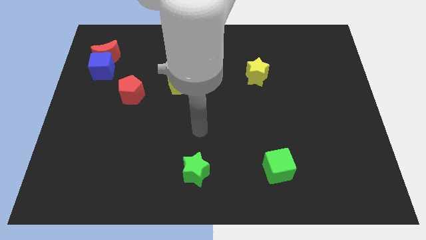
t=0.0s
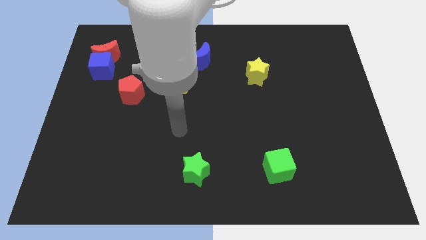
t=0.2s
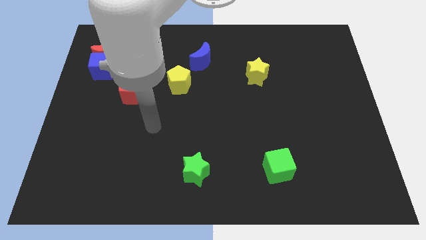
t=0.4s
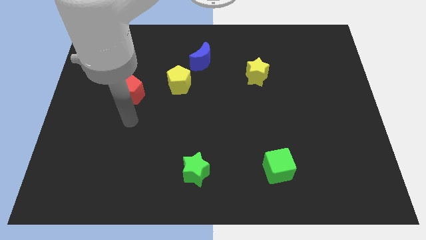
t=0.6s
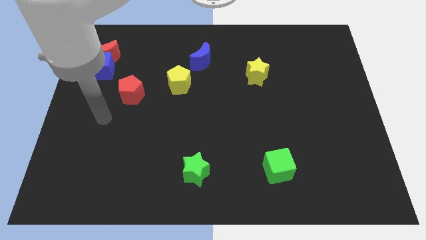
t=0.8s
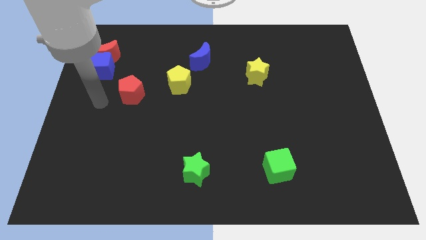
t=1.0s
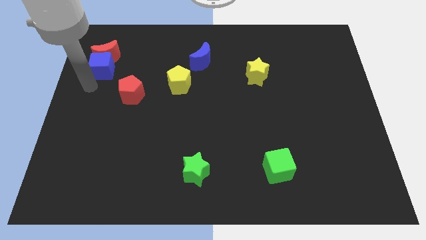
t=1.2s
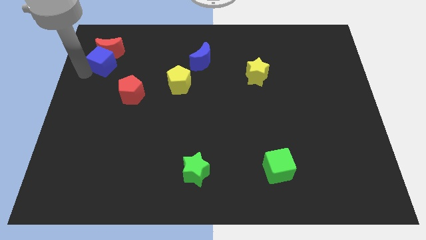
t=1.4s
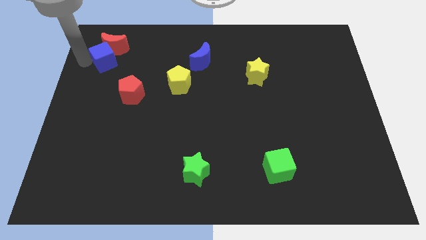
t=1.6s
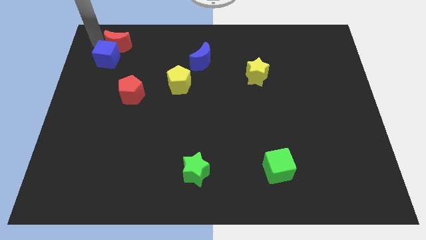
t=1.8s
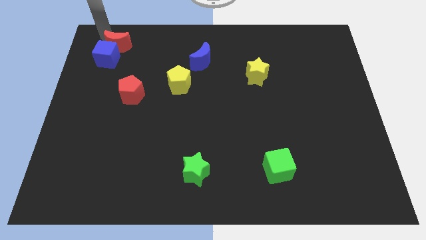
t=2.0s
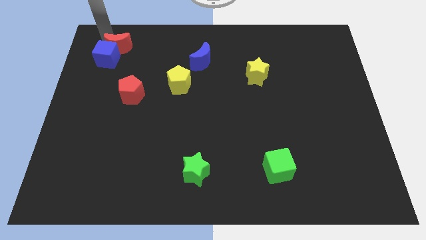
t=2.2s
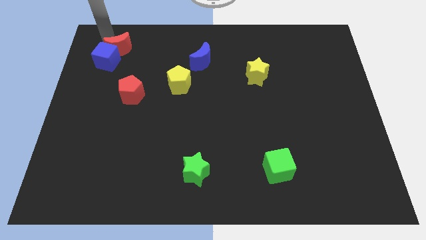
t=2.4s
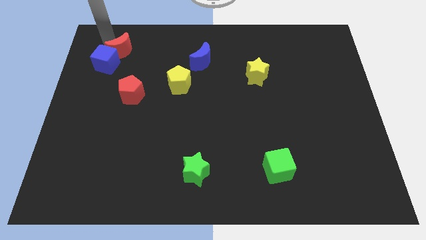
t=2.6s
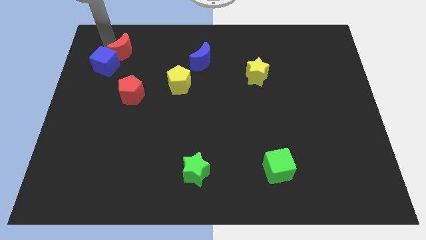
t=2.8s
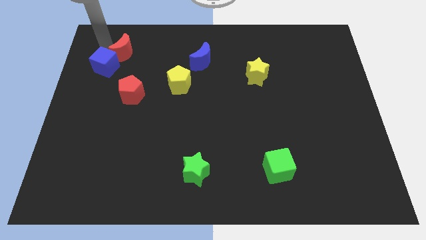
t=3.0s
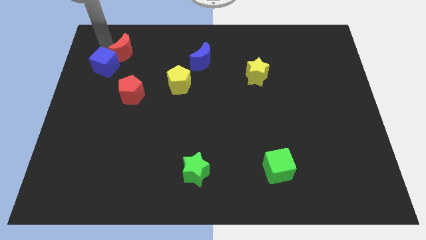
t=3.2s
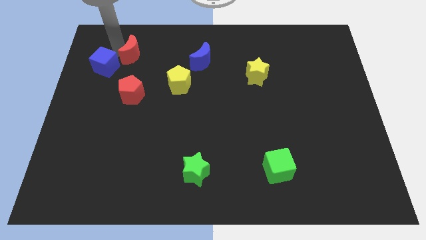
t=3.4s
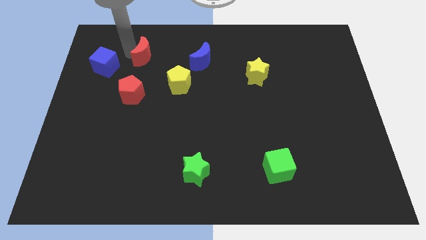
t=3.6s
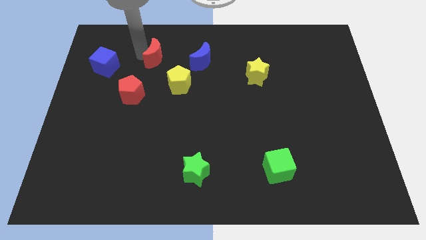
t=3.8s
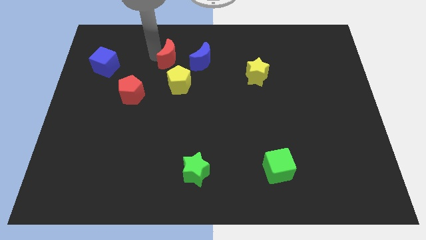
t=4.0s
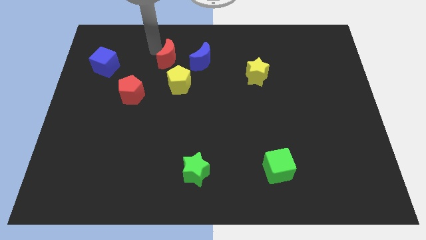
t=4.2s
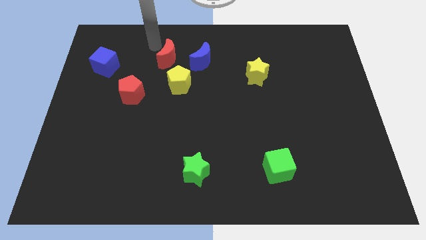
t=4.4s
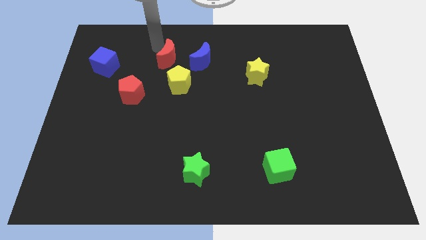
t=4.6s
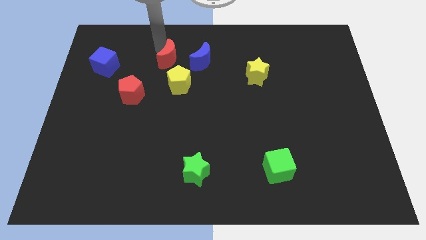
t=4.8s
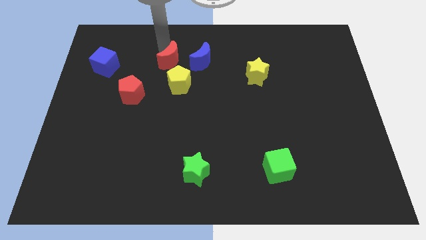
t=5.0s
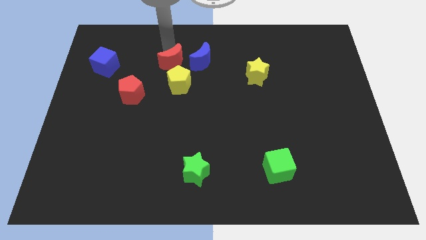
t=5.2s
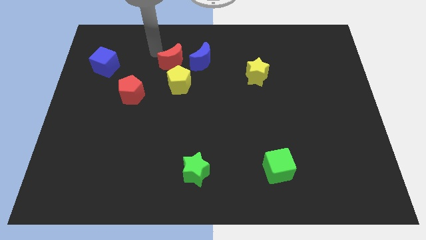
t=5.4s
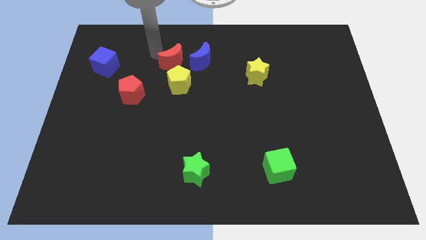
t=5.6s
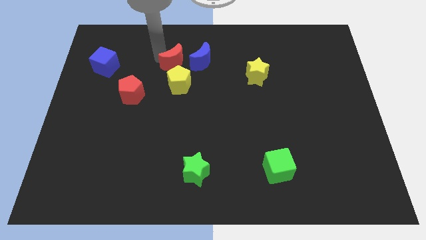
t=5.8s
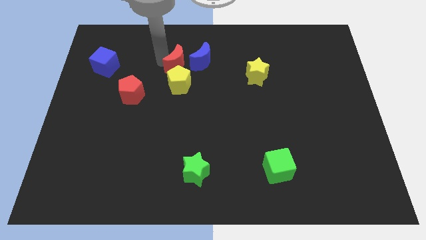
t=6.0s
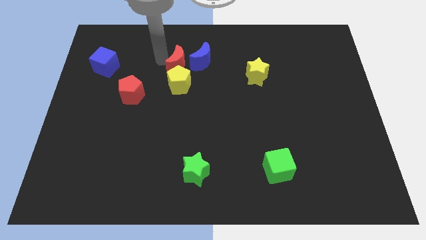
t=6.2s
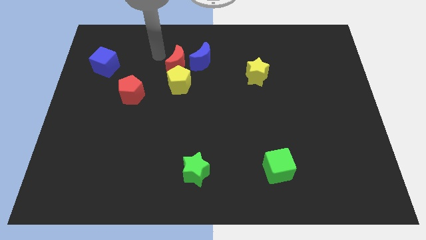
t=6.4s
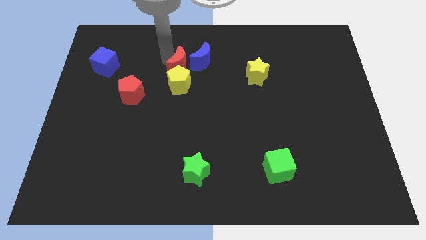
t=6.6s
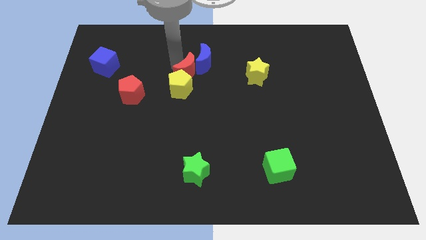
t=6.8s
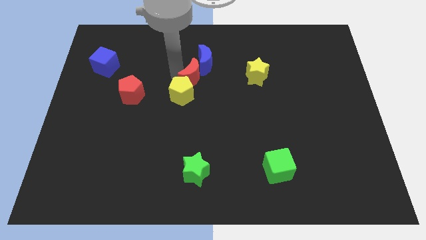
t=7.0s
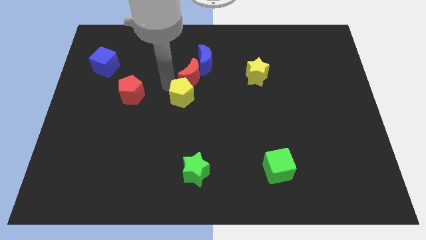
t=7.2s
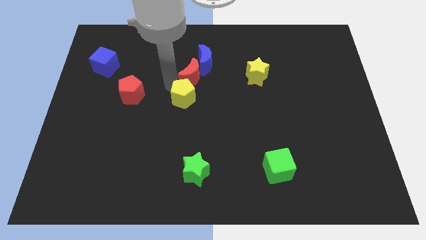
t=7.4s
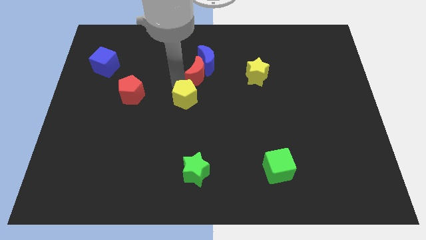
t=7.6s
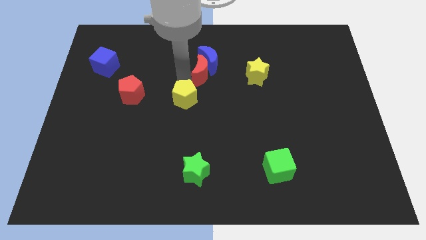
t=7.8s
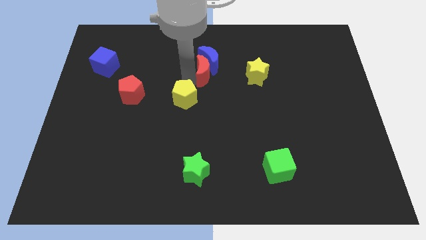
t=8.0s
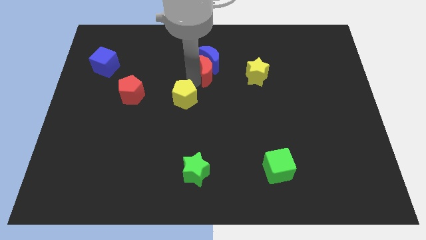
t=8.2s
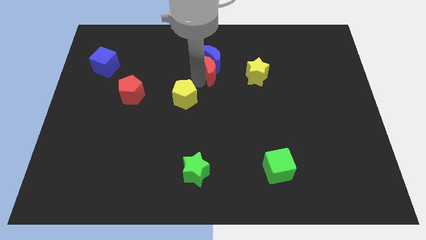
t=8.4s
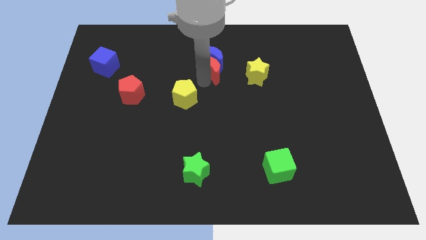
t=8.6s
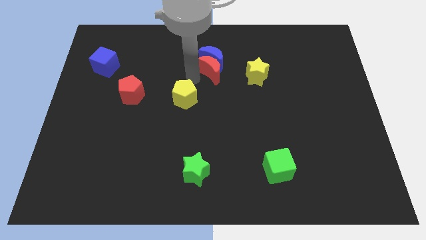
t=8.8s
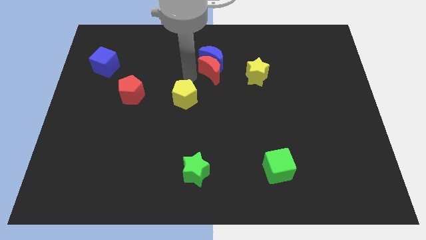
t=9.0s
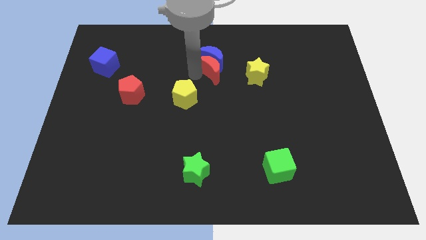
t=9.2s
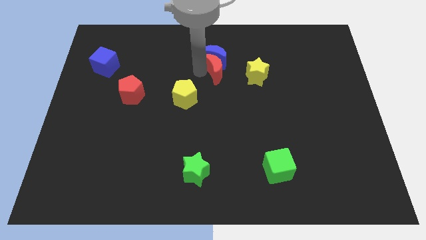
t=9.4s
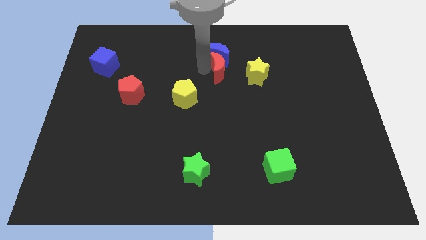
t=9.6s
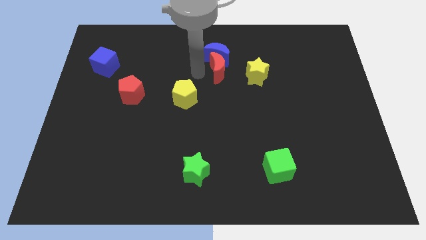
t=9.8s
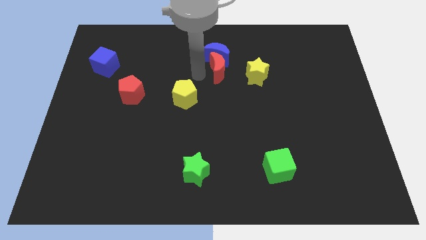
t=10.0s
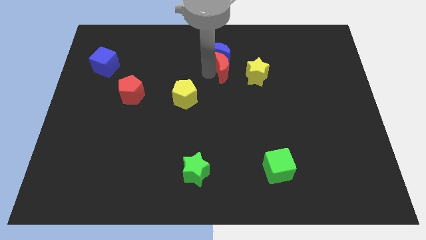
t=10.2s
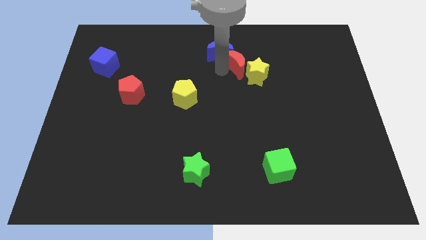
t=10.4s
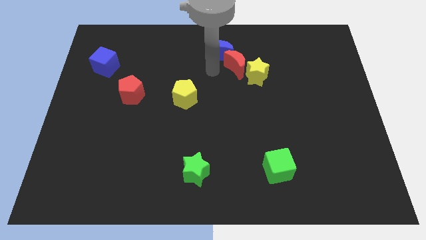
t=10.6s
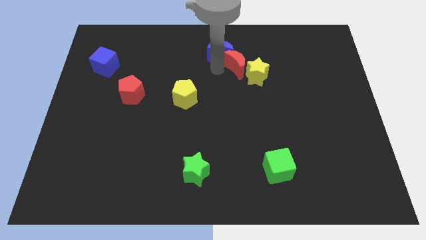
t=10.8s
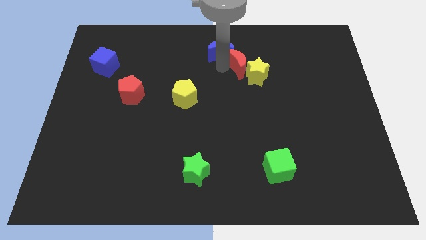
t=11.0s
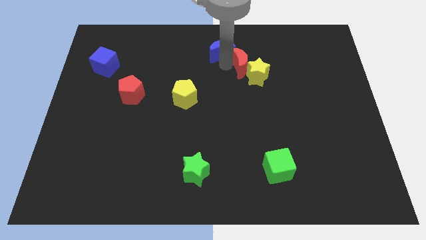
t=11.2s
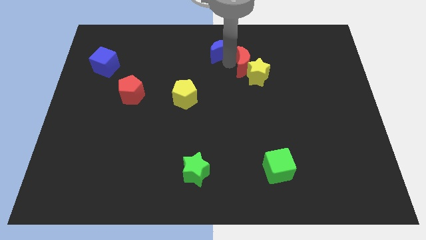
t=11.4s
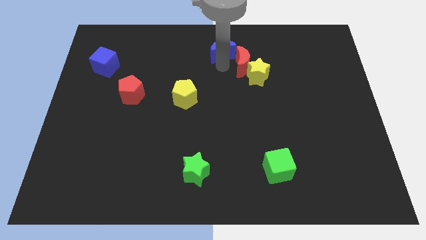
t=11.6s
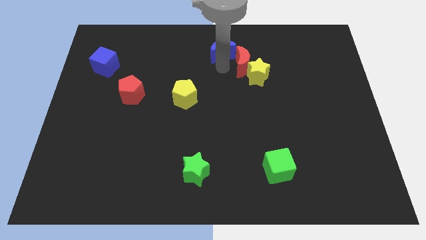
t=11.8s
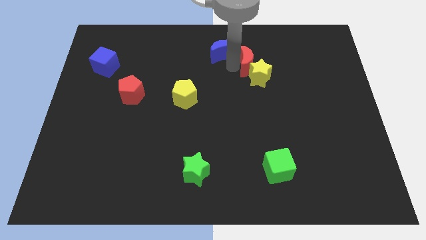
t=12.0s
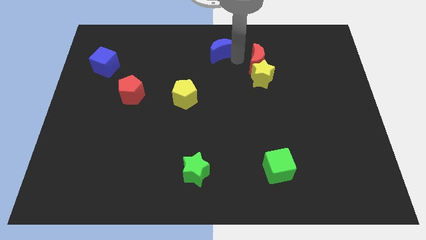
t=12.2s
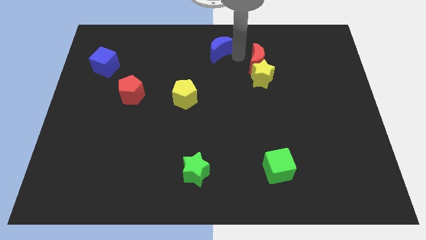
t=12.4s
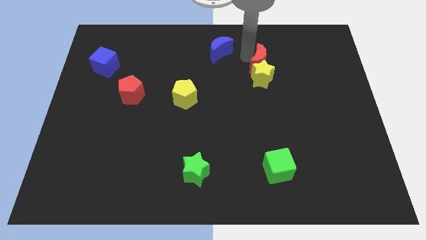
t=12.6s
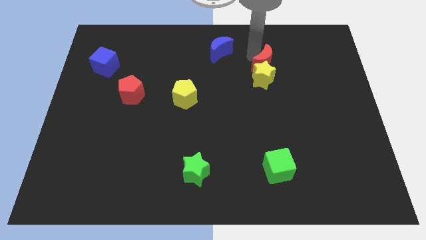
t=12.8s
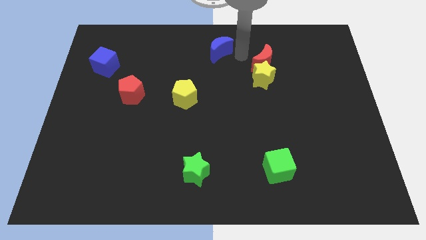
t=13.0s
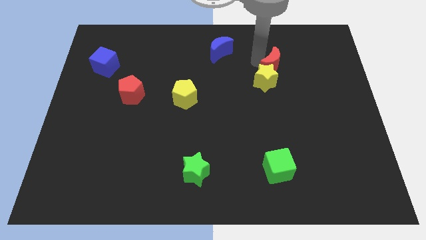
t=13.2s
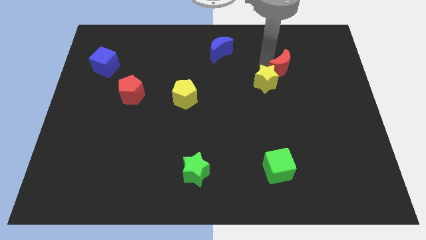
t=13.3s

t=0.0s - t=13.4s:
move the red moon right of the yellow star

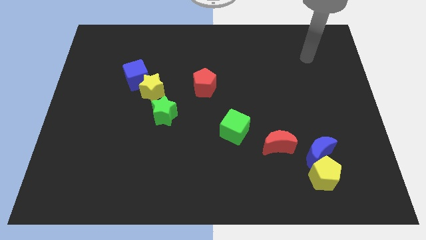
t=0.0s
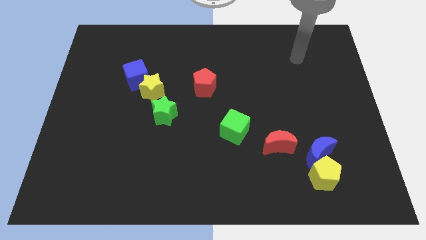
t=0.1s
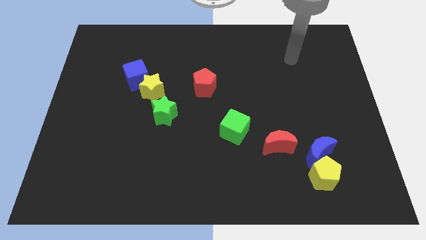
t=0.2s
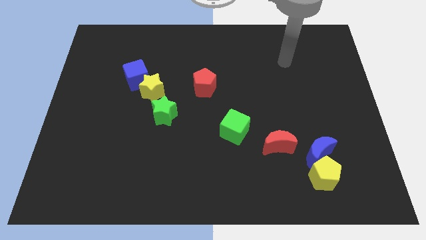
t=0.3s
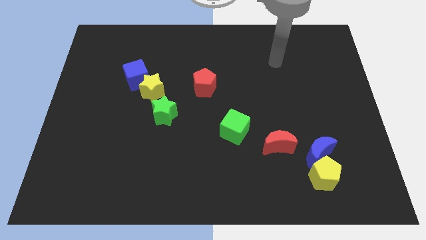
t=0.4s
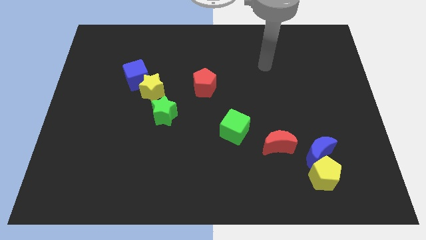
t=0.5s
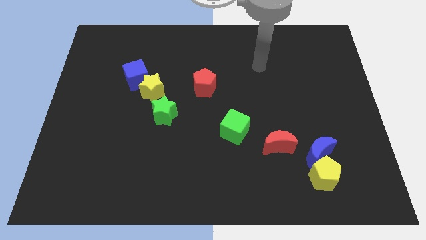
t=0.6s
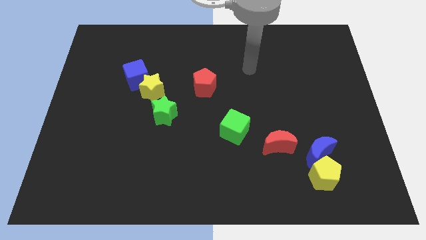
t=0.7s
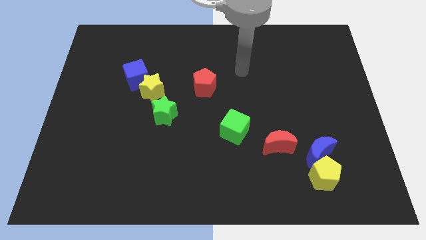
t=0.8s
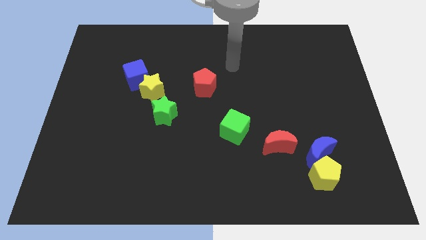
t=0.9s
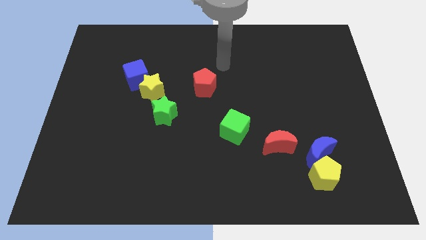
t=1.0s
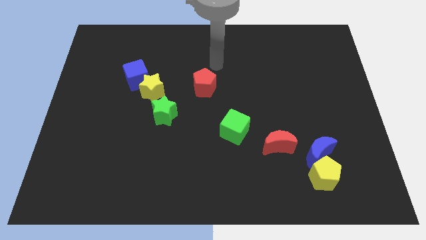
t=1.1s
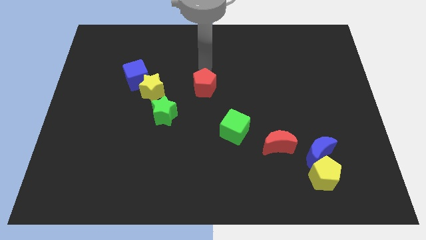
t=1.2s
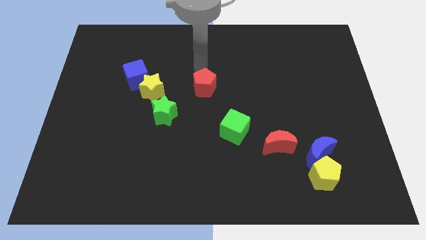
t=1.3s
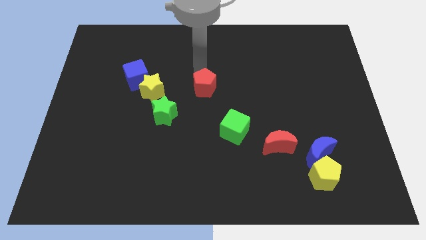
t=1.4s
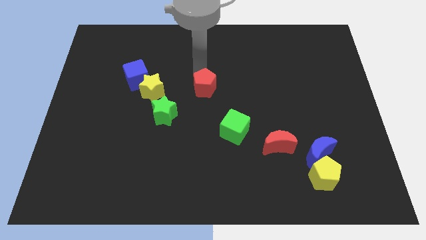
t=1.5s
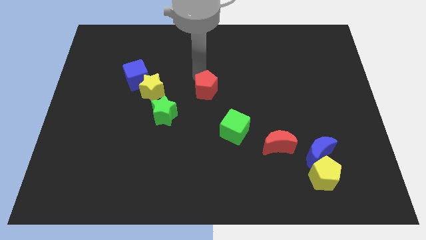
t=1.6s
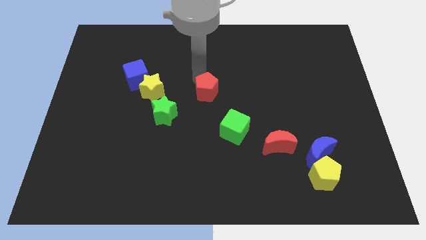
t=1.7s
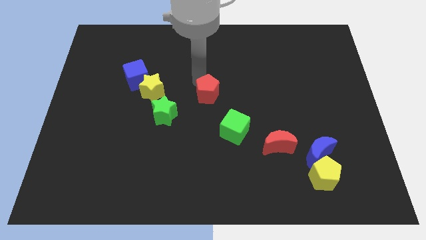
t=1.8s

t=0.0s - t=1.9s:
move the red pentagon to the top left side of the green cube
